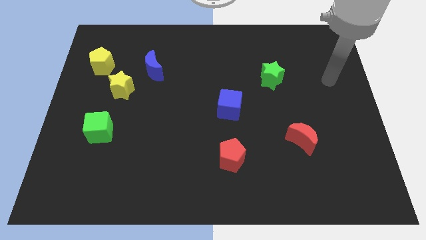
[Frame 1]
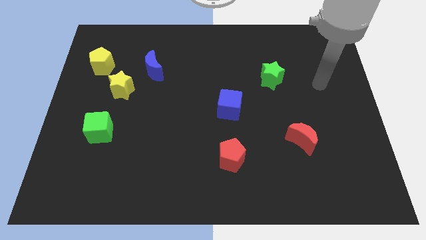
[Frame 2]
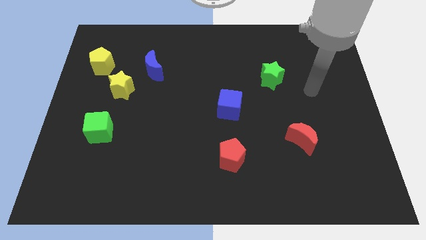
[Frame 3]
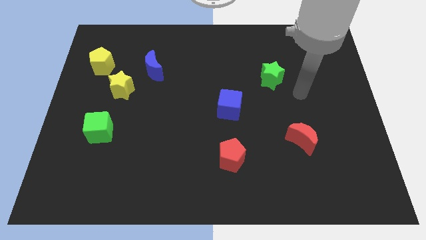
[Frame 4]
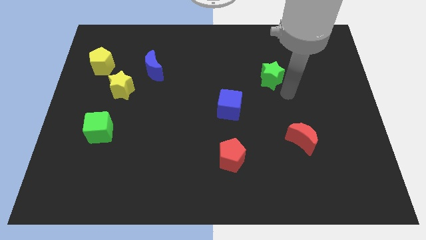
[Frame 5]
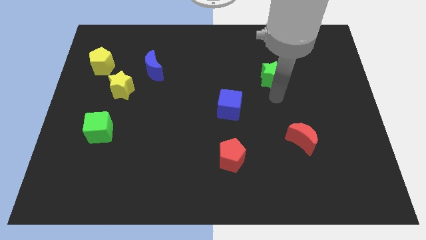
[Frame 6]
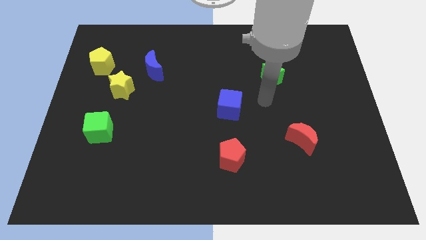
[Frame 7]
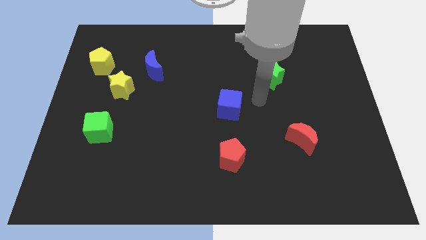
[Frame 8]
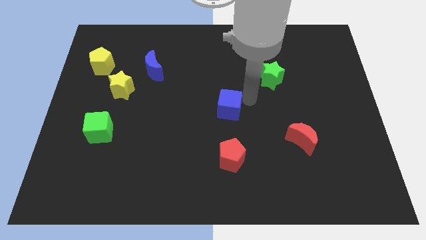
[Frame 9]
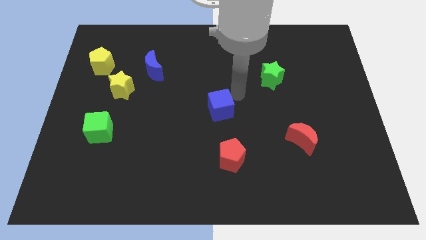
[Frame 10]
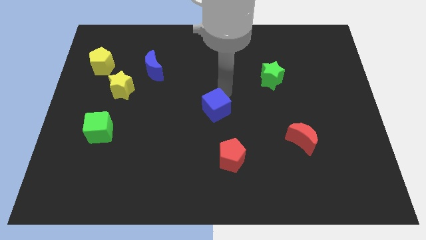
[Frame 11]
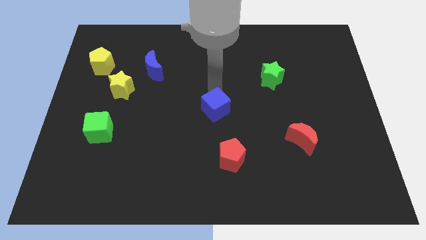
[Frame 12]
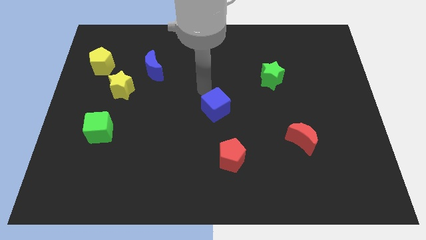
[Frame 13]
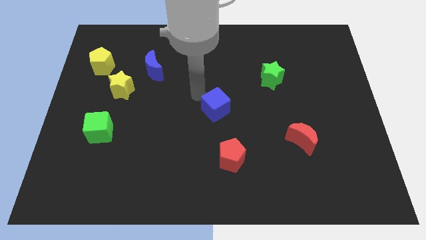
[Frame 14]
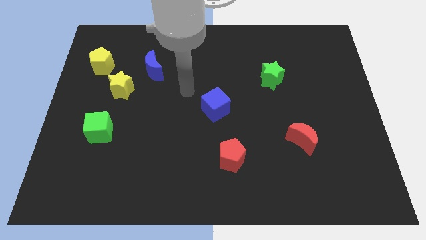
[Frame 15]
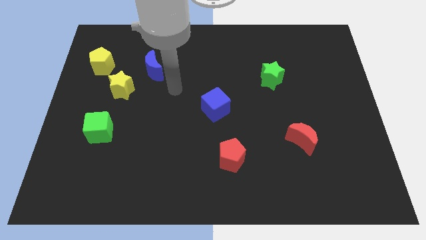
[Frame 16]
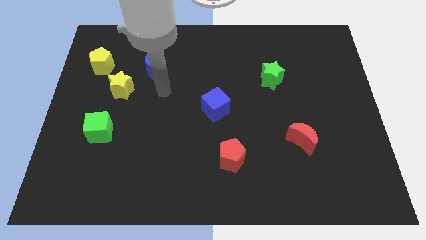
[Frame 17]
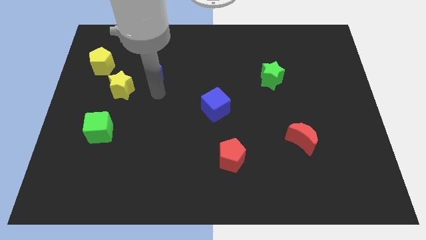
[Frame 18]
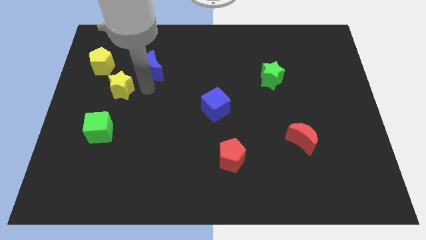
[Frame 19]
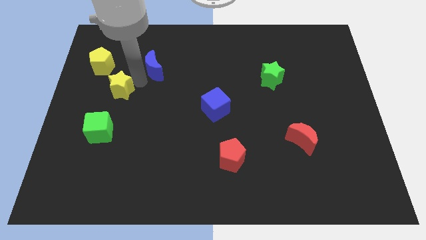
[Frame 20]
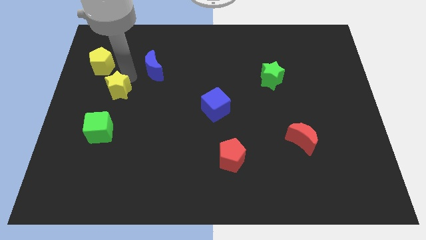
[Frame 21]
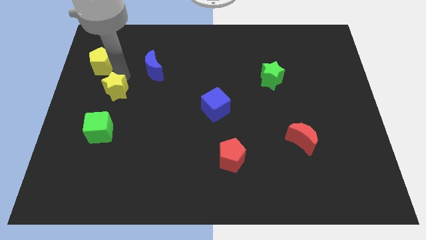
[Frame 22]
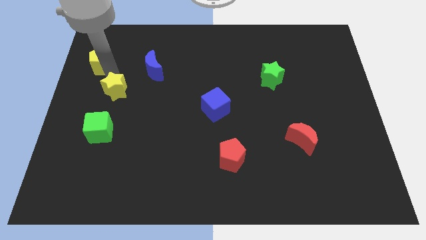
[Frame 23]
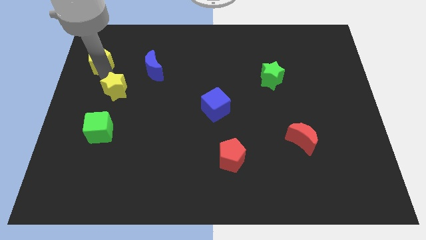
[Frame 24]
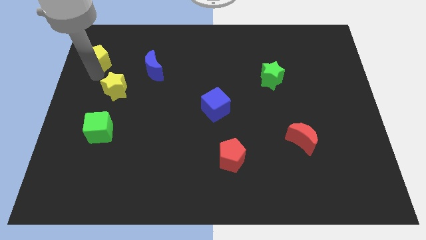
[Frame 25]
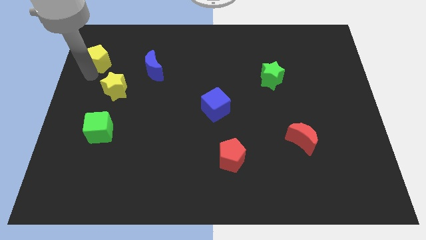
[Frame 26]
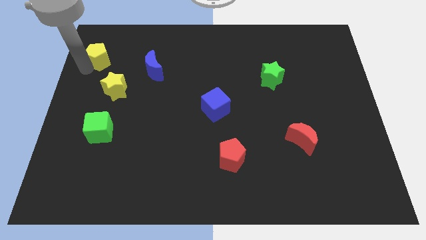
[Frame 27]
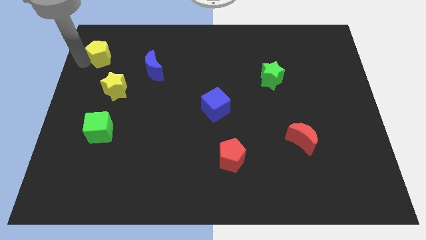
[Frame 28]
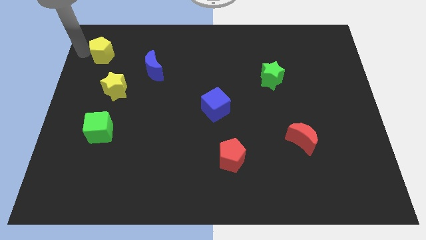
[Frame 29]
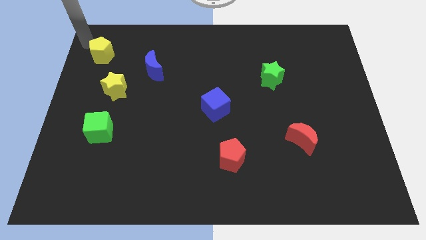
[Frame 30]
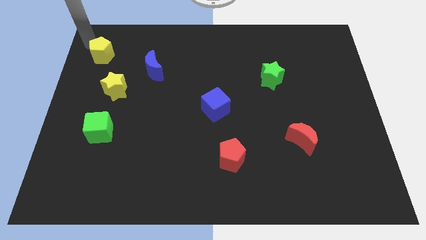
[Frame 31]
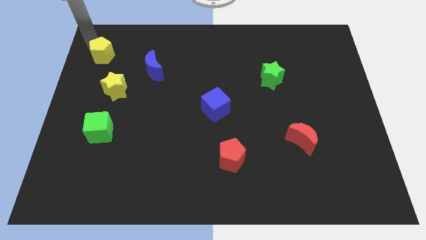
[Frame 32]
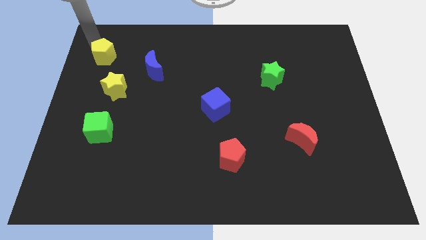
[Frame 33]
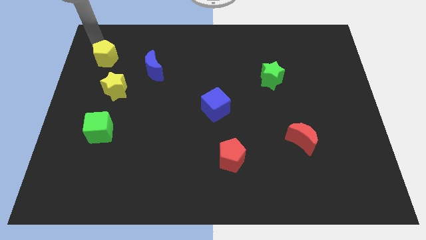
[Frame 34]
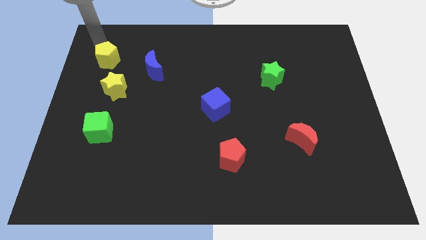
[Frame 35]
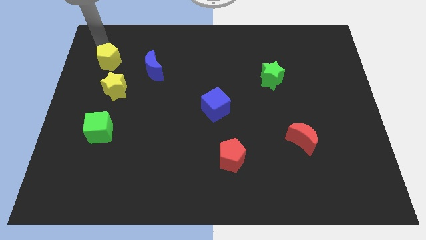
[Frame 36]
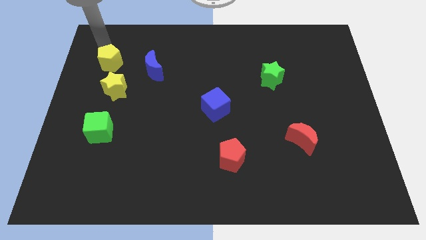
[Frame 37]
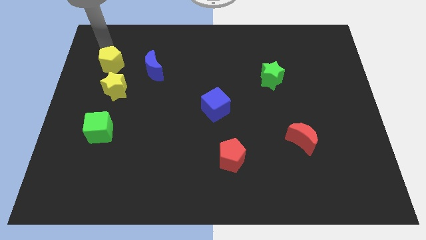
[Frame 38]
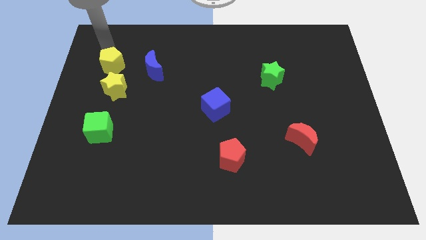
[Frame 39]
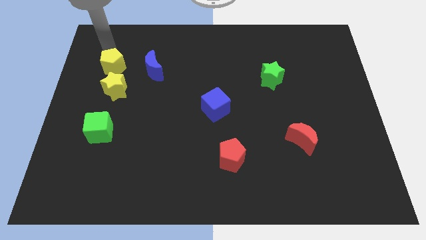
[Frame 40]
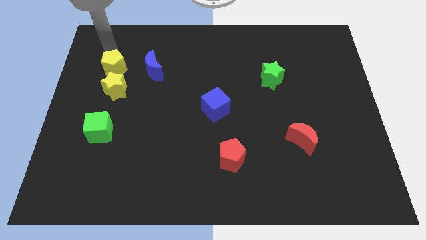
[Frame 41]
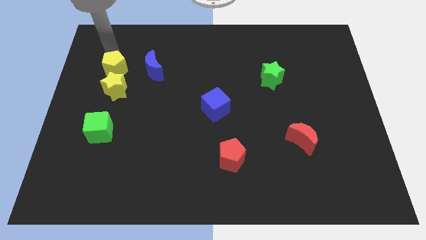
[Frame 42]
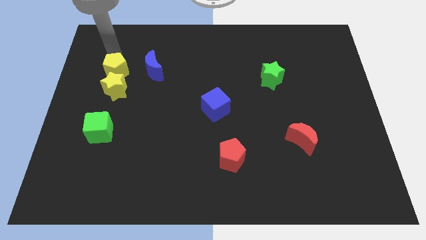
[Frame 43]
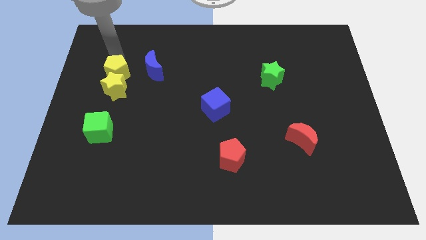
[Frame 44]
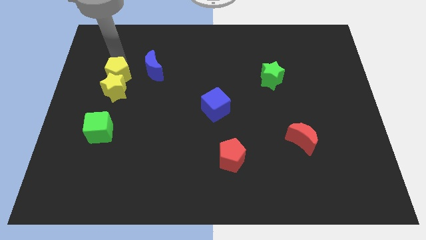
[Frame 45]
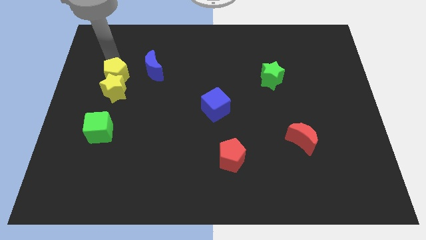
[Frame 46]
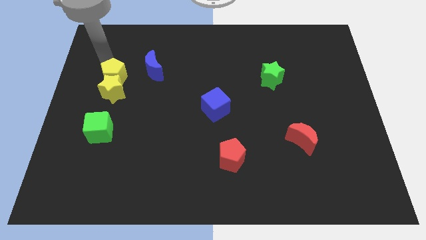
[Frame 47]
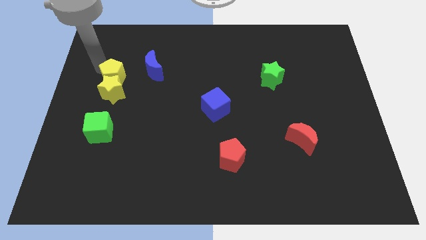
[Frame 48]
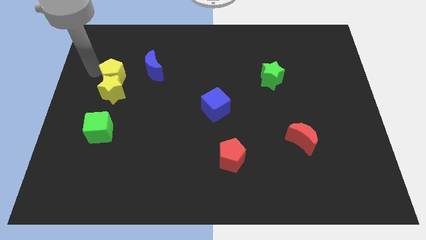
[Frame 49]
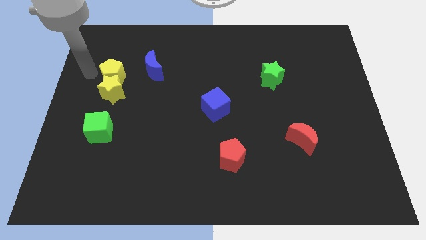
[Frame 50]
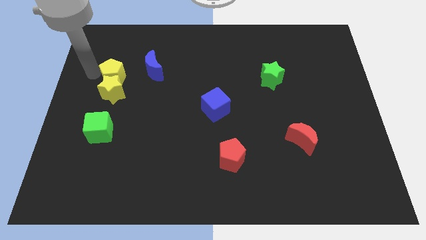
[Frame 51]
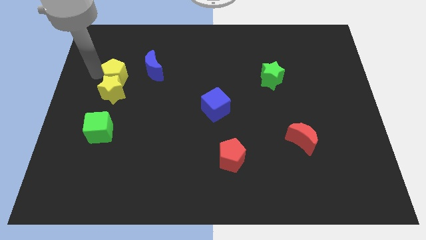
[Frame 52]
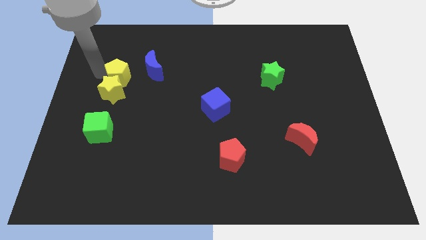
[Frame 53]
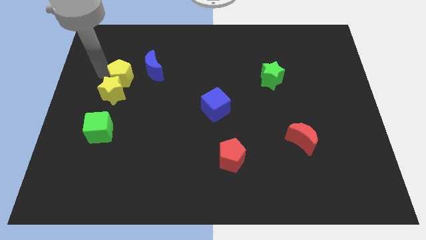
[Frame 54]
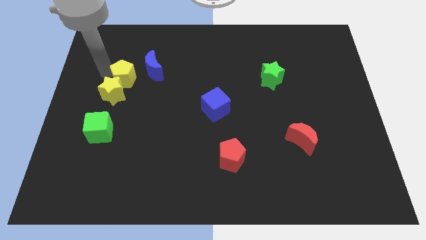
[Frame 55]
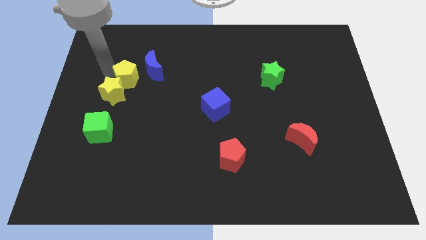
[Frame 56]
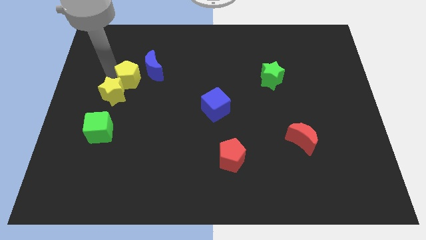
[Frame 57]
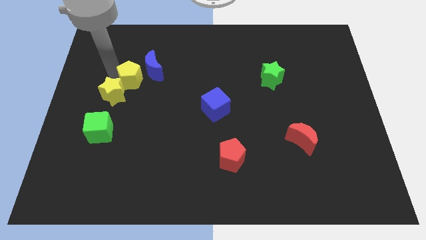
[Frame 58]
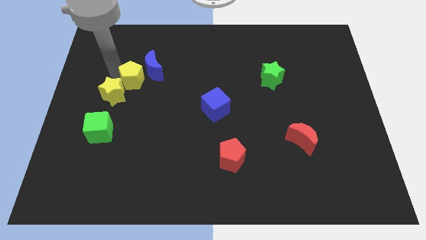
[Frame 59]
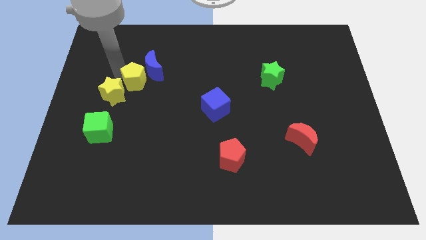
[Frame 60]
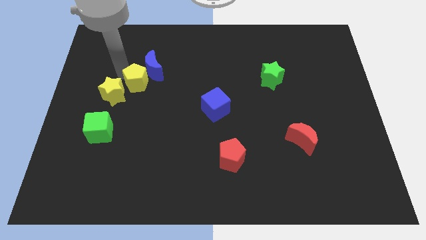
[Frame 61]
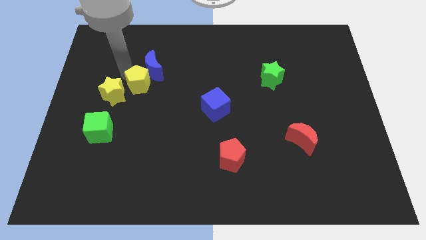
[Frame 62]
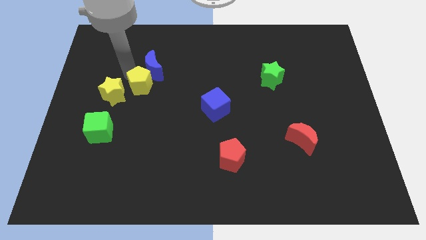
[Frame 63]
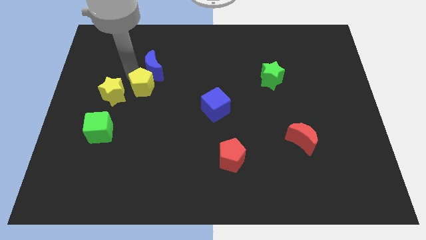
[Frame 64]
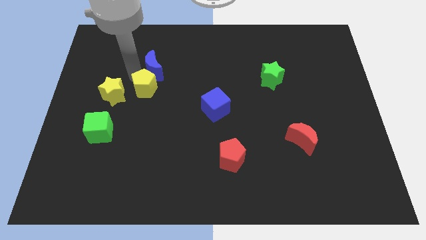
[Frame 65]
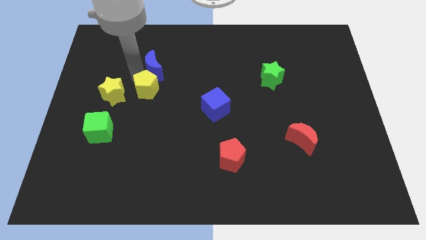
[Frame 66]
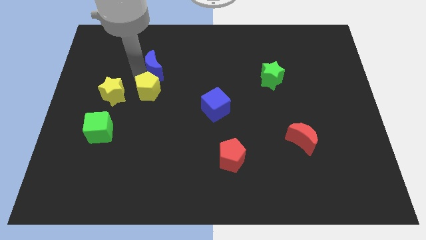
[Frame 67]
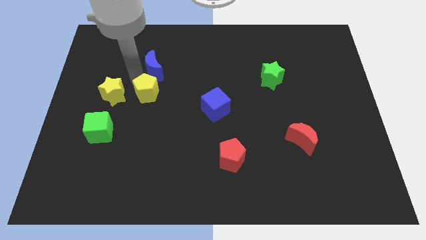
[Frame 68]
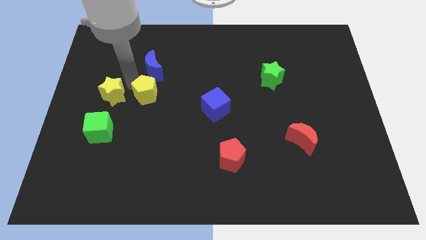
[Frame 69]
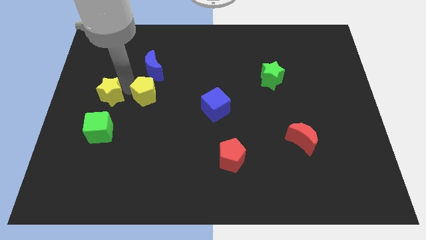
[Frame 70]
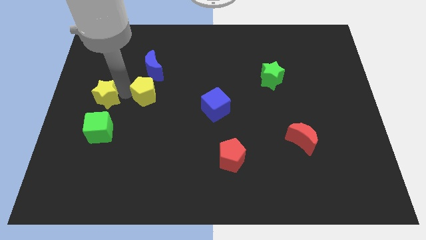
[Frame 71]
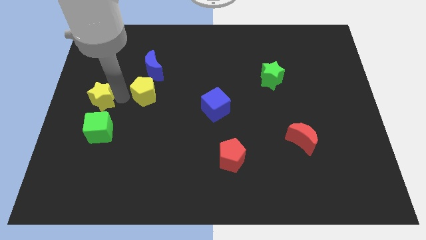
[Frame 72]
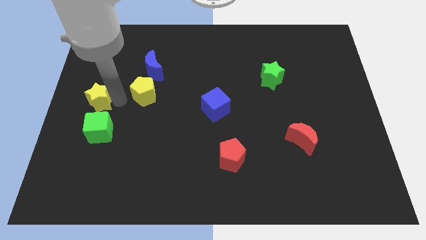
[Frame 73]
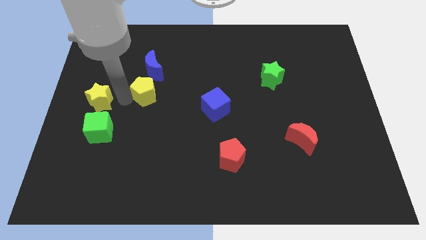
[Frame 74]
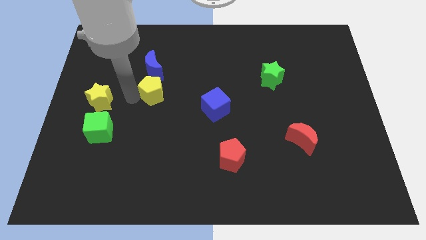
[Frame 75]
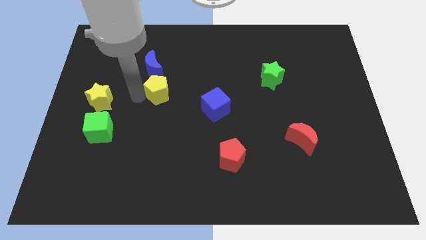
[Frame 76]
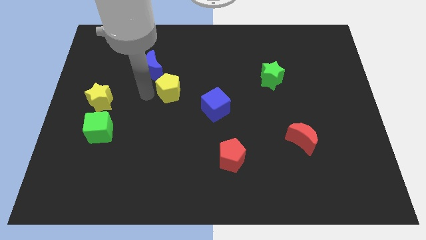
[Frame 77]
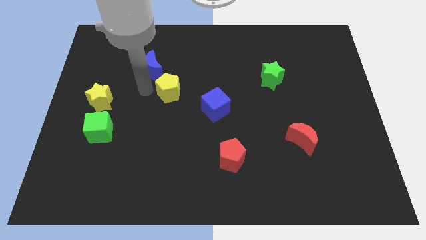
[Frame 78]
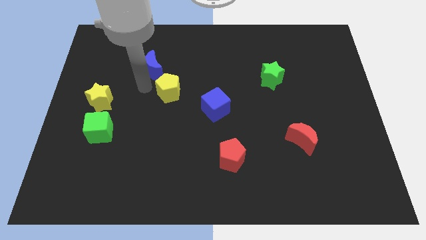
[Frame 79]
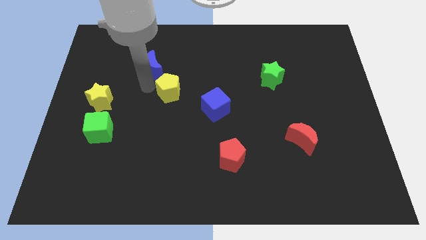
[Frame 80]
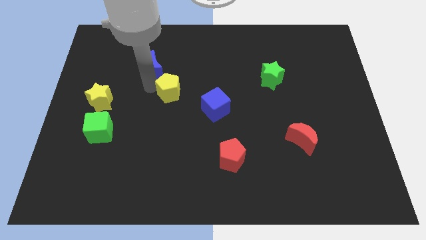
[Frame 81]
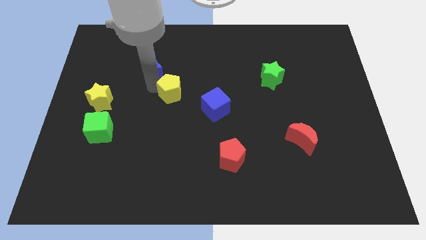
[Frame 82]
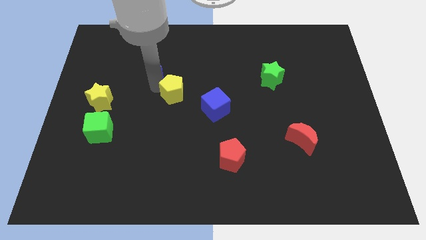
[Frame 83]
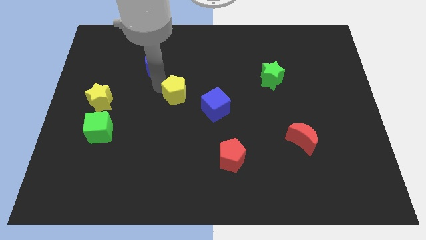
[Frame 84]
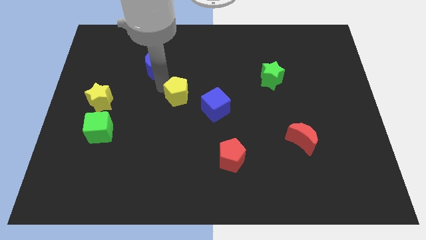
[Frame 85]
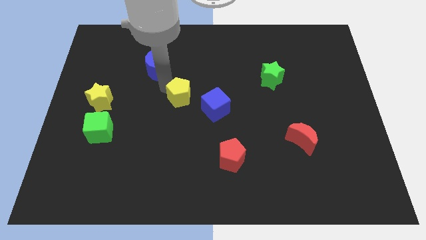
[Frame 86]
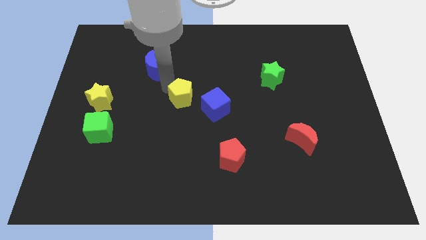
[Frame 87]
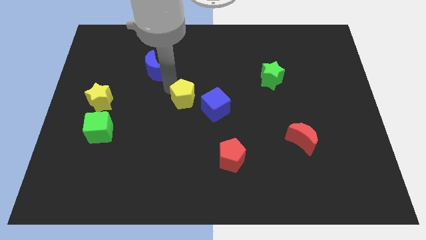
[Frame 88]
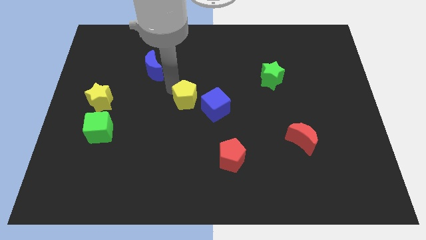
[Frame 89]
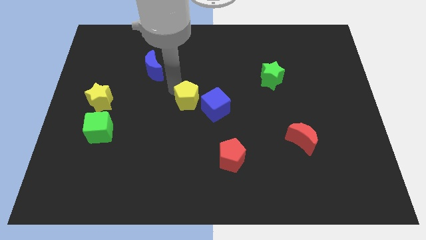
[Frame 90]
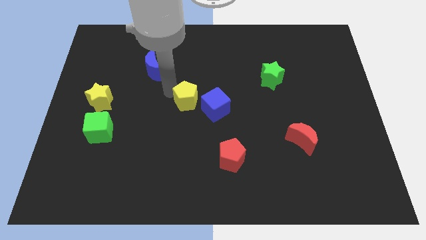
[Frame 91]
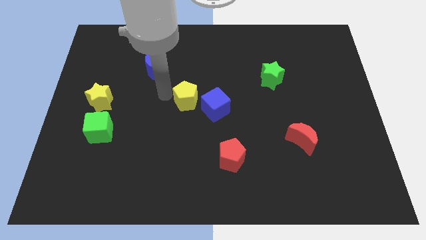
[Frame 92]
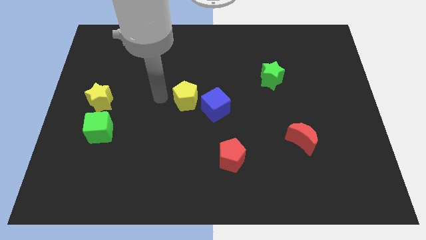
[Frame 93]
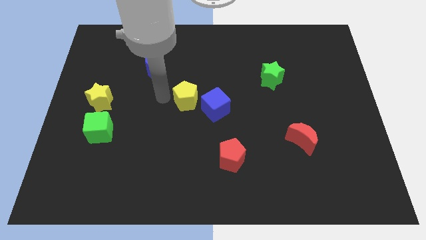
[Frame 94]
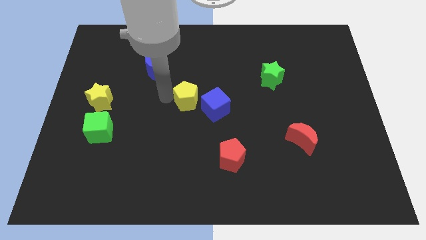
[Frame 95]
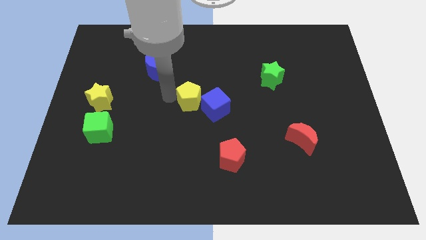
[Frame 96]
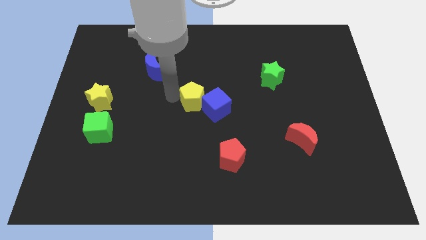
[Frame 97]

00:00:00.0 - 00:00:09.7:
slide the yellow pentagon next to the blue cube
